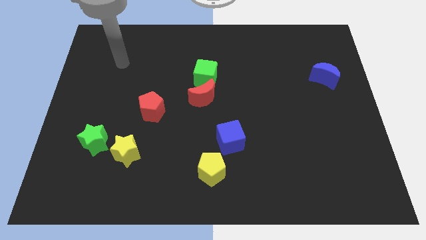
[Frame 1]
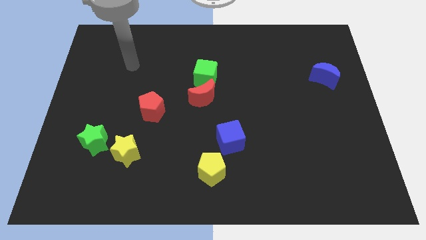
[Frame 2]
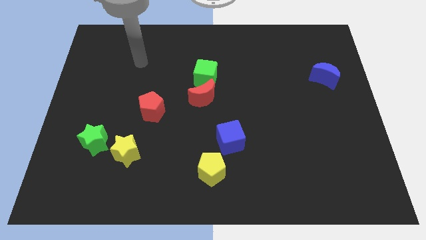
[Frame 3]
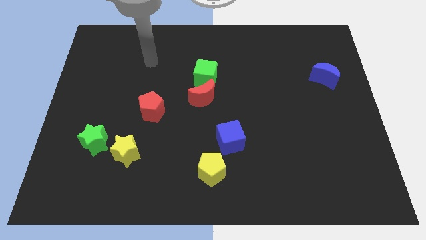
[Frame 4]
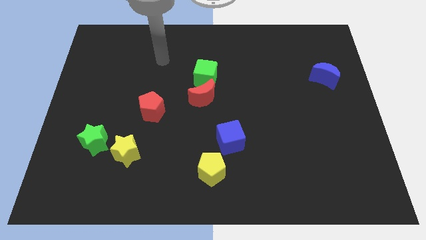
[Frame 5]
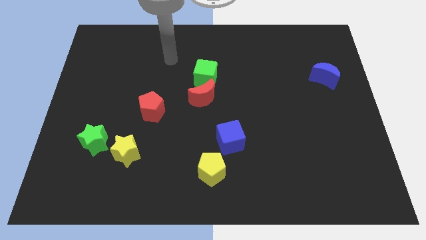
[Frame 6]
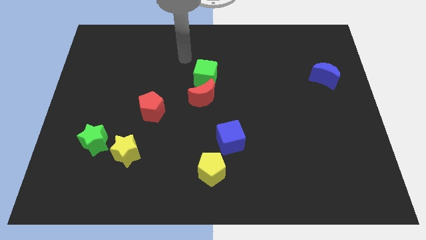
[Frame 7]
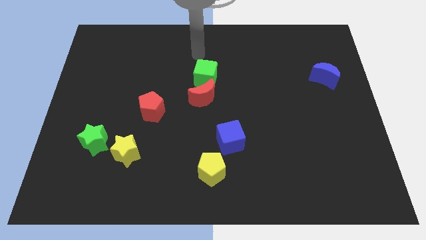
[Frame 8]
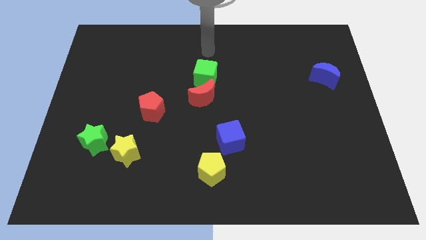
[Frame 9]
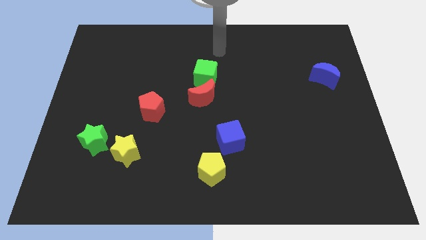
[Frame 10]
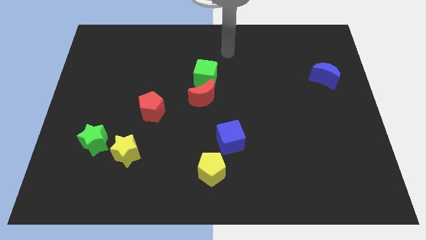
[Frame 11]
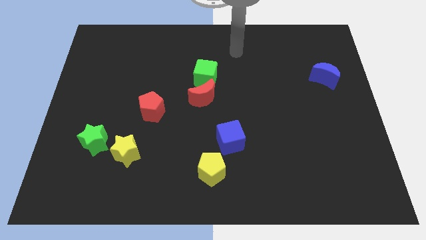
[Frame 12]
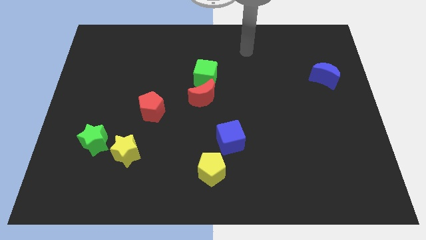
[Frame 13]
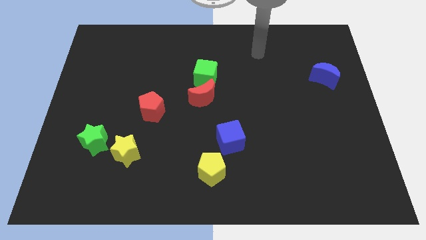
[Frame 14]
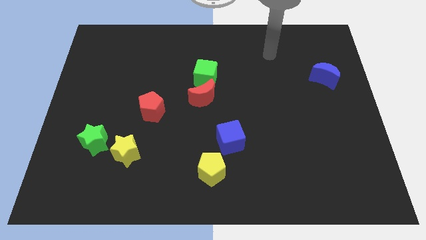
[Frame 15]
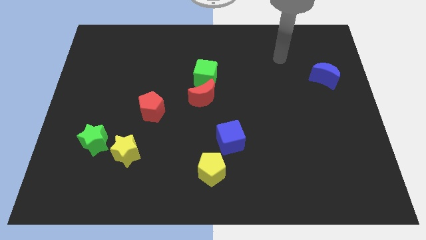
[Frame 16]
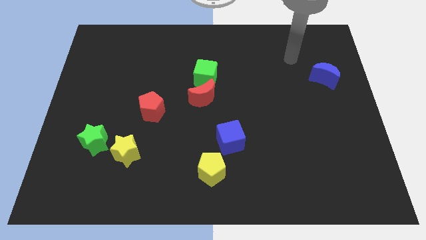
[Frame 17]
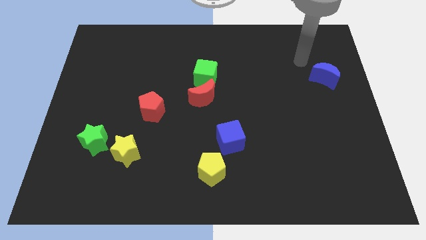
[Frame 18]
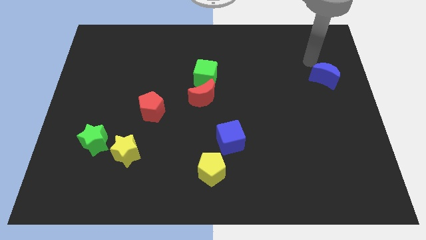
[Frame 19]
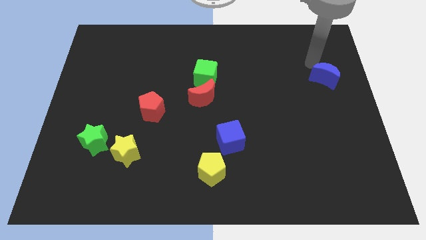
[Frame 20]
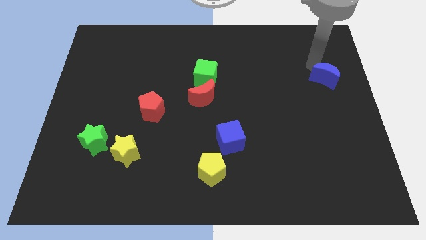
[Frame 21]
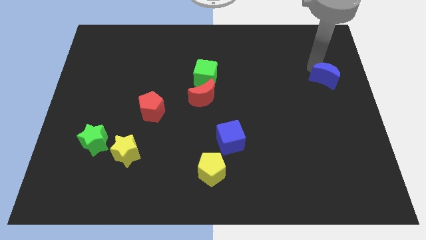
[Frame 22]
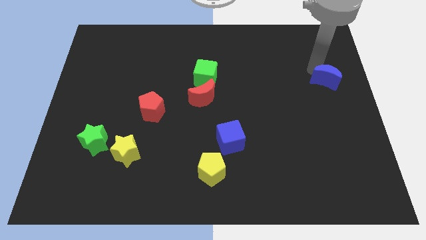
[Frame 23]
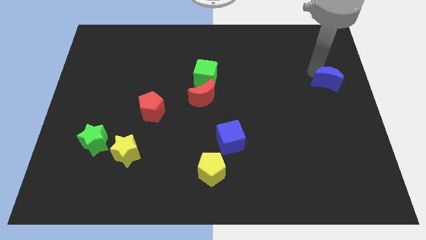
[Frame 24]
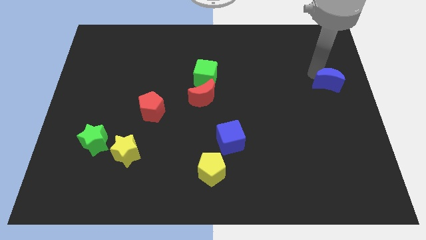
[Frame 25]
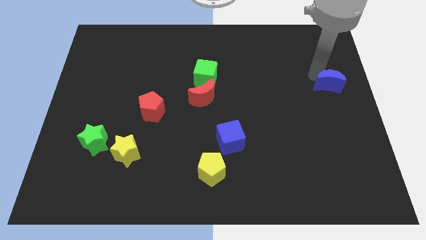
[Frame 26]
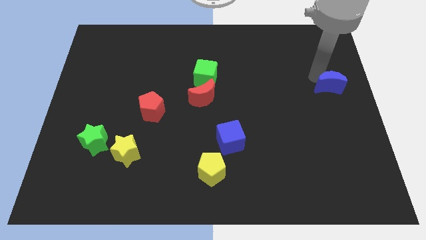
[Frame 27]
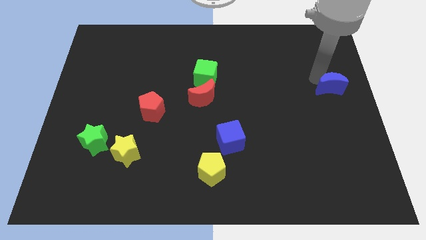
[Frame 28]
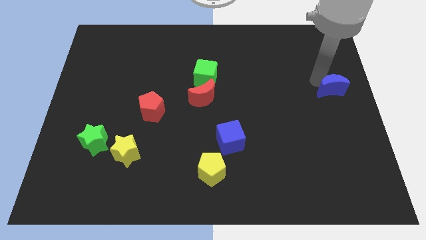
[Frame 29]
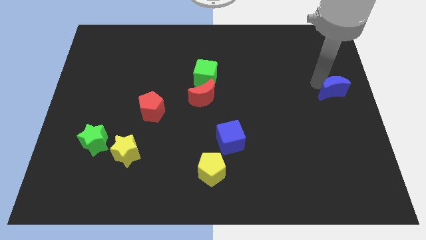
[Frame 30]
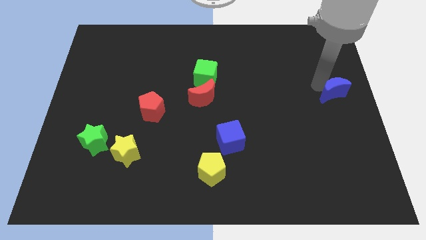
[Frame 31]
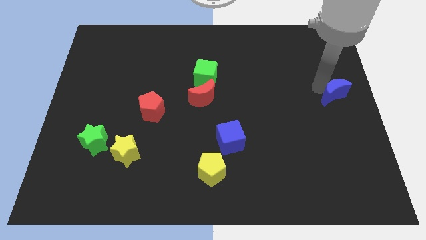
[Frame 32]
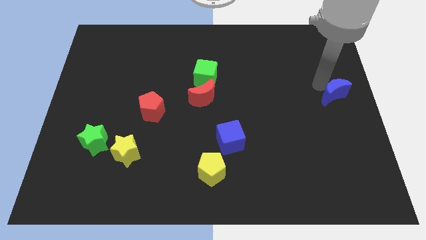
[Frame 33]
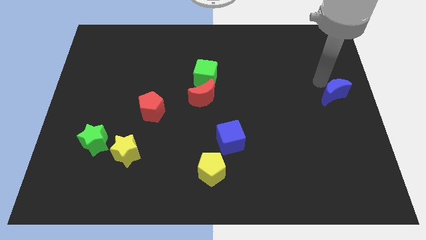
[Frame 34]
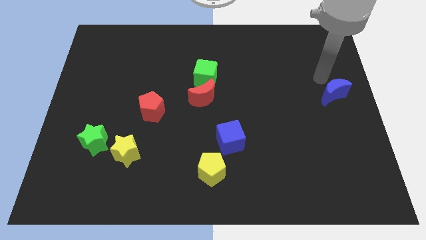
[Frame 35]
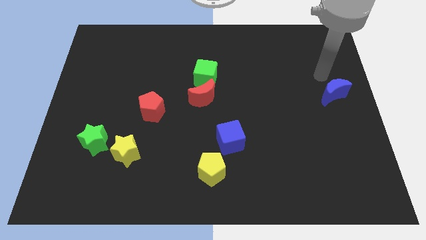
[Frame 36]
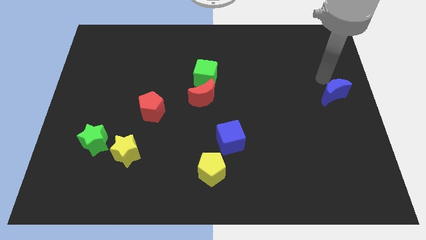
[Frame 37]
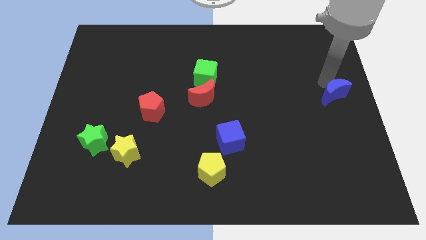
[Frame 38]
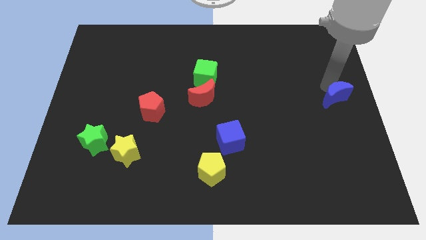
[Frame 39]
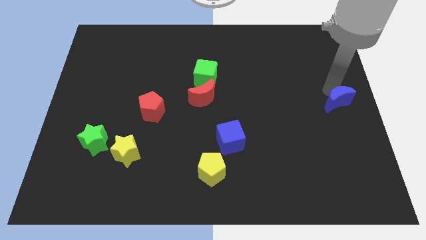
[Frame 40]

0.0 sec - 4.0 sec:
slightly move the blue moon down

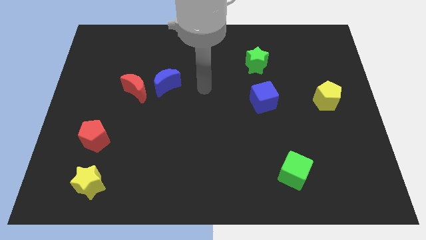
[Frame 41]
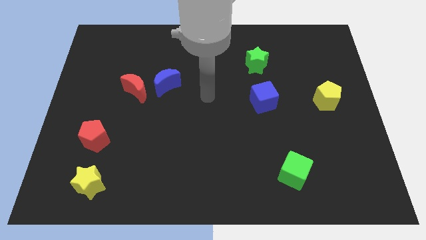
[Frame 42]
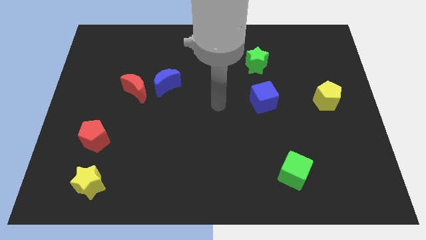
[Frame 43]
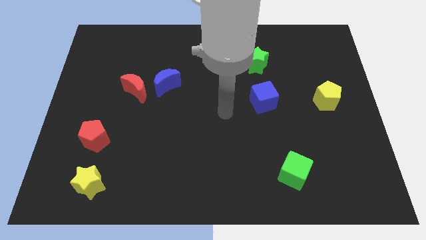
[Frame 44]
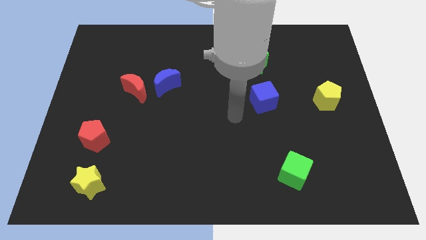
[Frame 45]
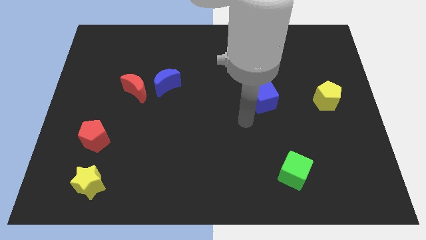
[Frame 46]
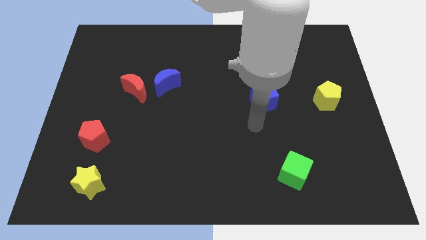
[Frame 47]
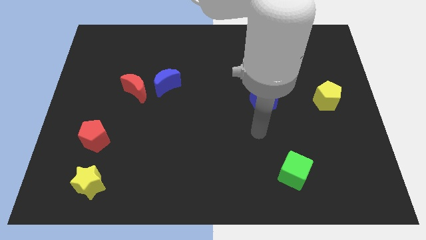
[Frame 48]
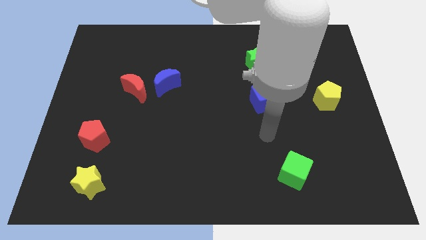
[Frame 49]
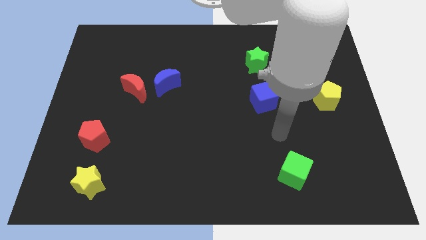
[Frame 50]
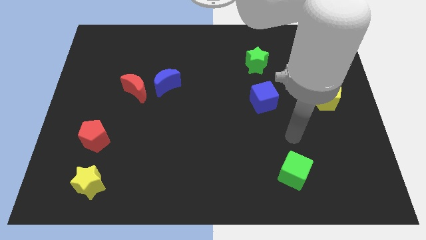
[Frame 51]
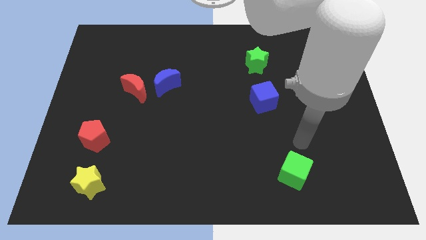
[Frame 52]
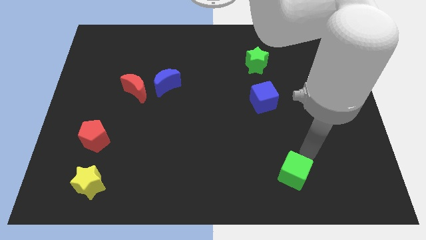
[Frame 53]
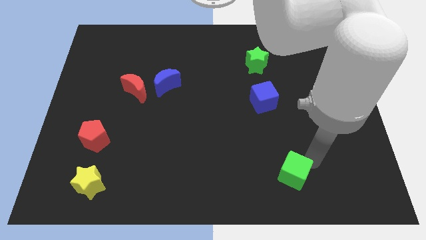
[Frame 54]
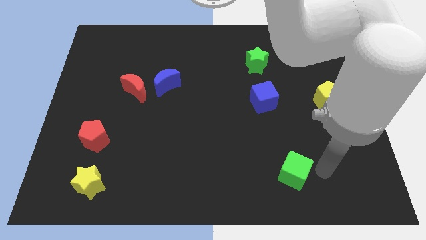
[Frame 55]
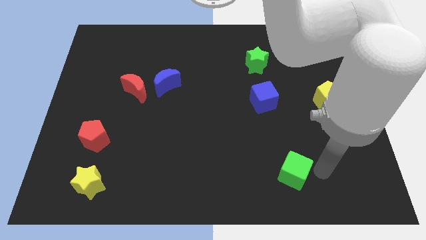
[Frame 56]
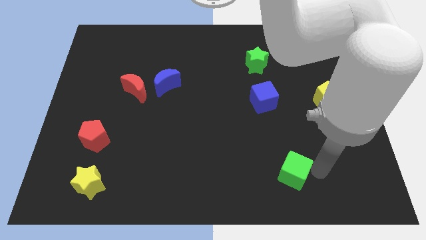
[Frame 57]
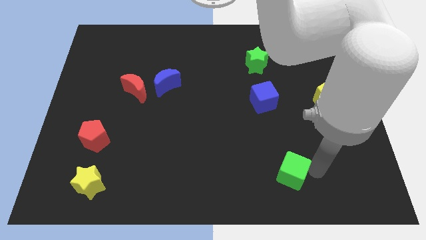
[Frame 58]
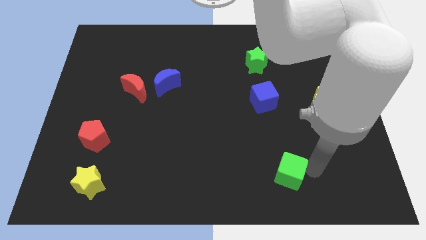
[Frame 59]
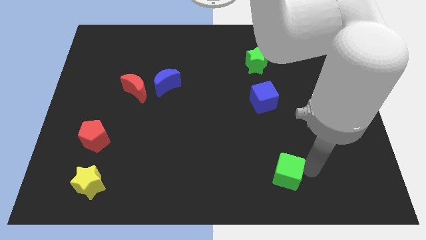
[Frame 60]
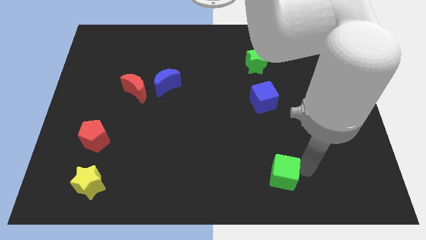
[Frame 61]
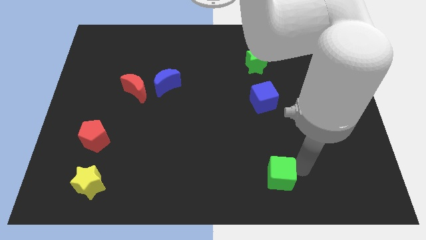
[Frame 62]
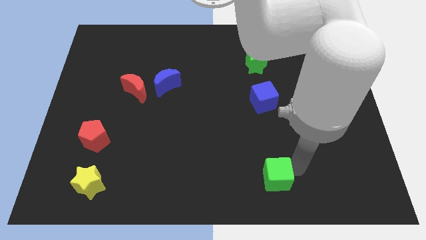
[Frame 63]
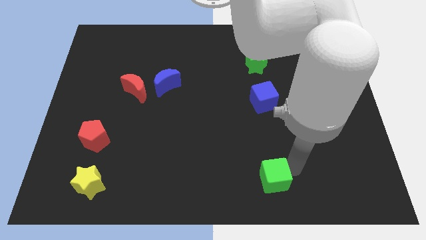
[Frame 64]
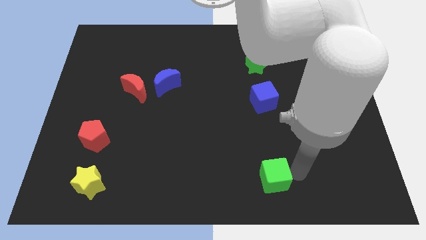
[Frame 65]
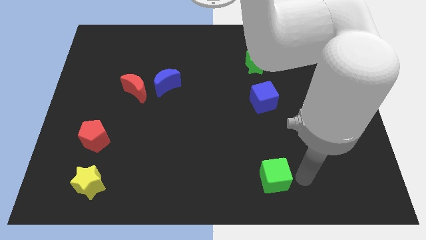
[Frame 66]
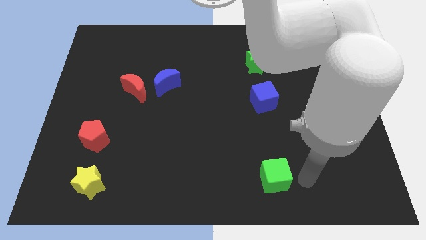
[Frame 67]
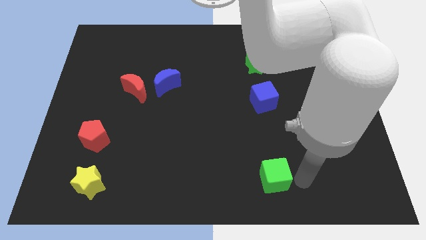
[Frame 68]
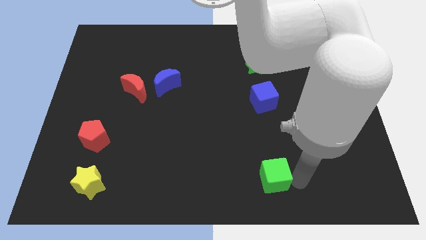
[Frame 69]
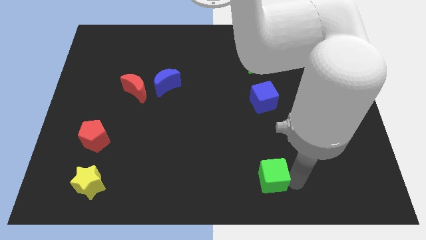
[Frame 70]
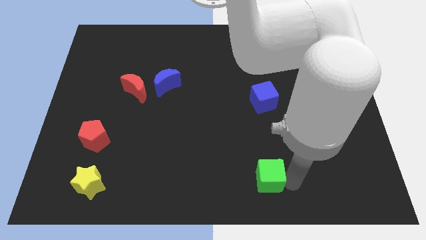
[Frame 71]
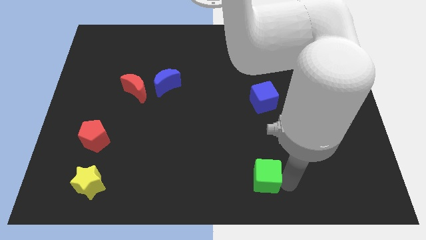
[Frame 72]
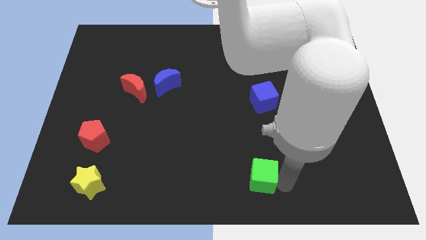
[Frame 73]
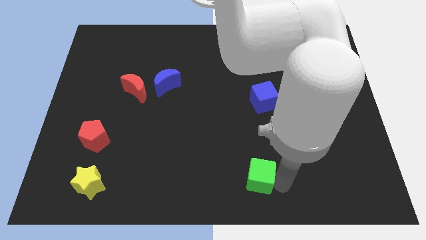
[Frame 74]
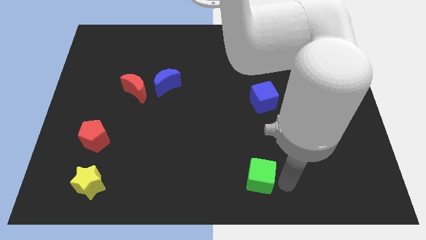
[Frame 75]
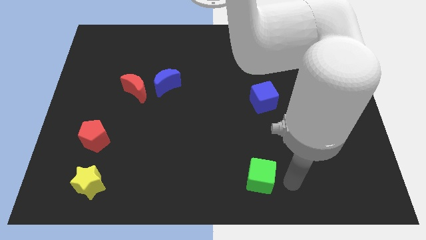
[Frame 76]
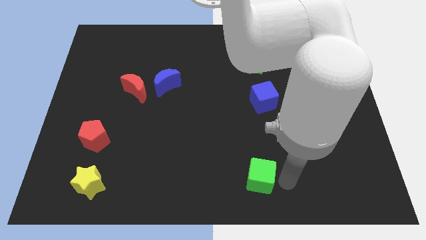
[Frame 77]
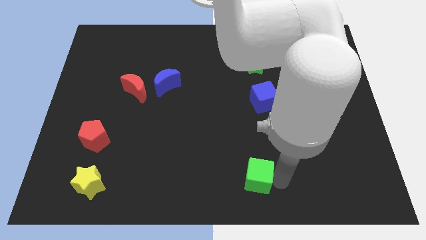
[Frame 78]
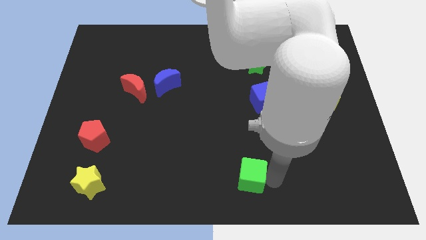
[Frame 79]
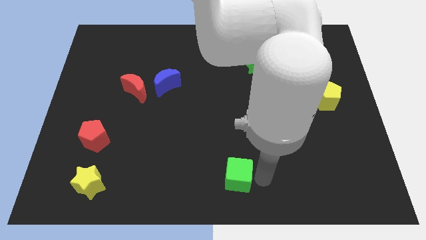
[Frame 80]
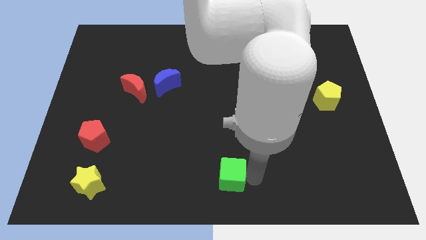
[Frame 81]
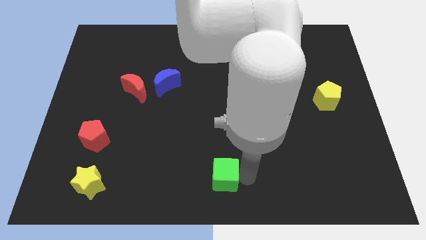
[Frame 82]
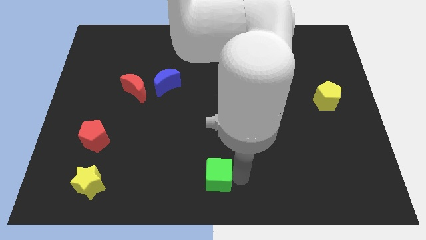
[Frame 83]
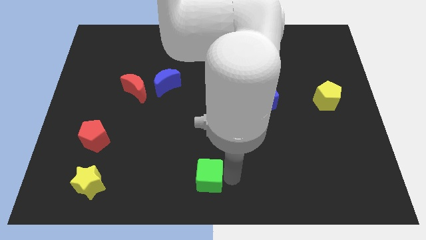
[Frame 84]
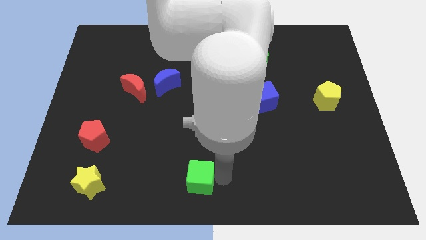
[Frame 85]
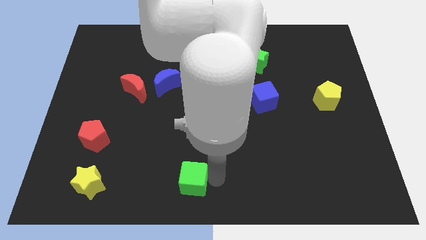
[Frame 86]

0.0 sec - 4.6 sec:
push the green cube left
